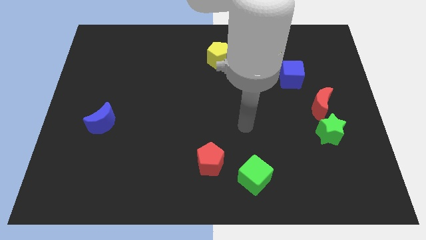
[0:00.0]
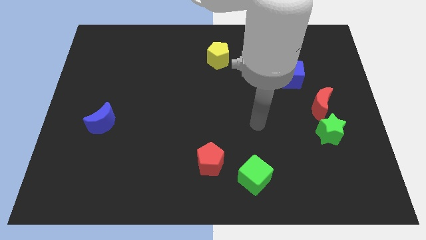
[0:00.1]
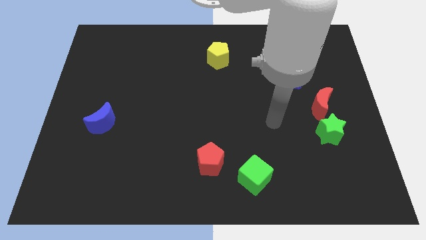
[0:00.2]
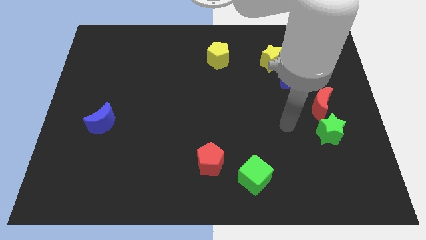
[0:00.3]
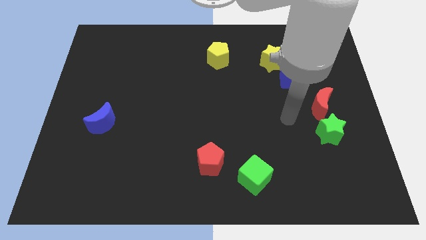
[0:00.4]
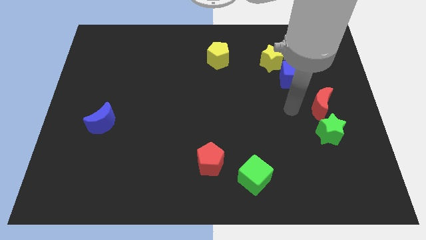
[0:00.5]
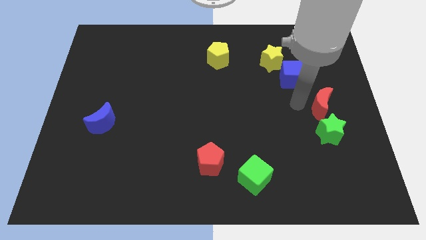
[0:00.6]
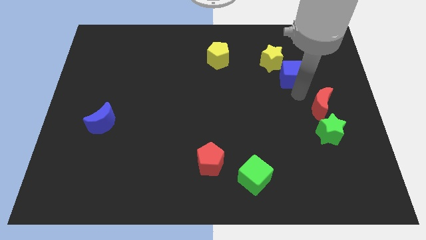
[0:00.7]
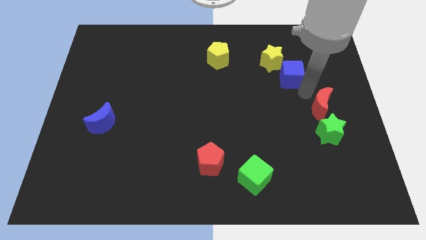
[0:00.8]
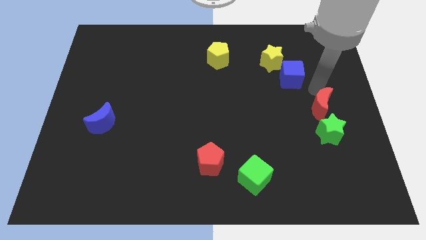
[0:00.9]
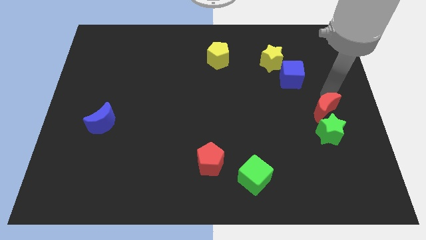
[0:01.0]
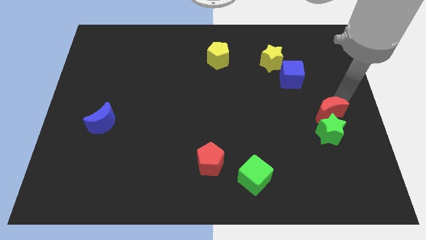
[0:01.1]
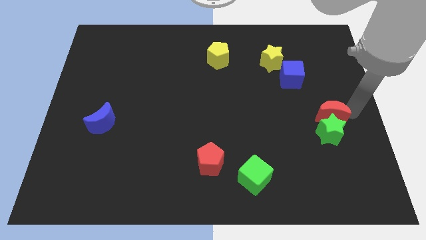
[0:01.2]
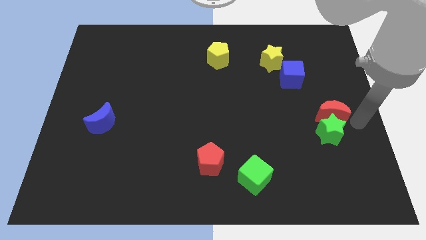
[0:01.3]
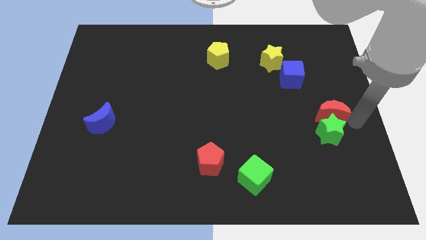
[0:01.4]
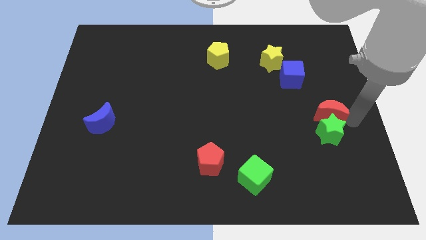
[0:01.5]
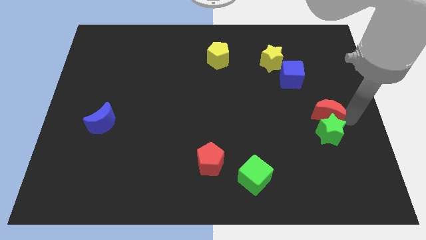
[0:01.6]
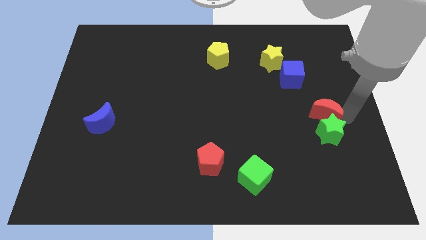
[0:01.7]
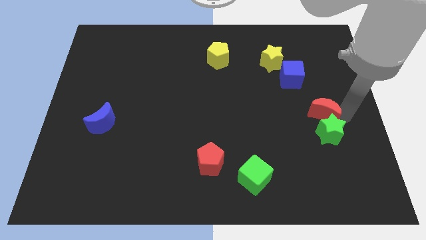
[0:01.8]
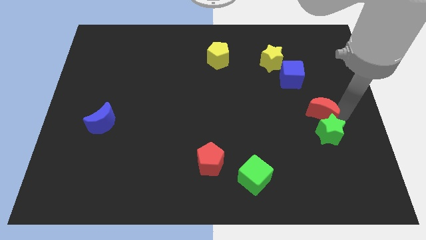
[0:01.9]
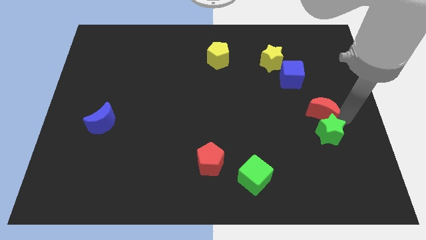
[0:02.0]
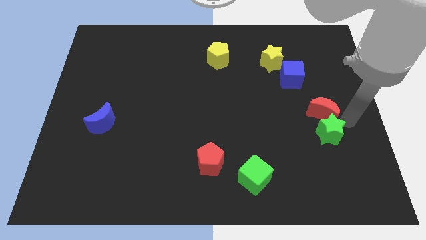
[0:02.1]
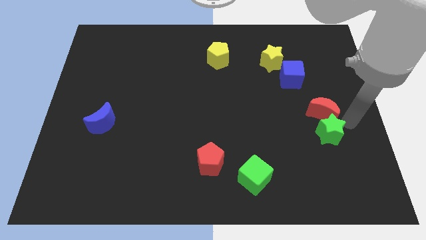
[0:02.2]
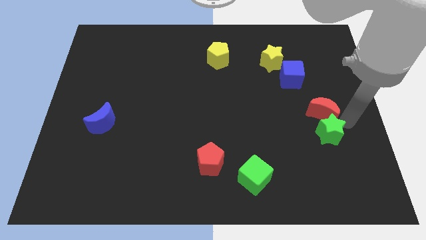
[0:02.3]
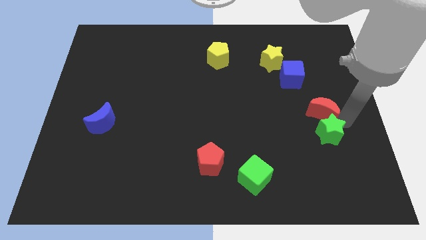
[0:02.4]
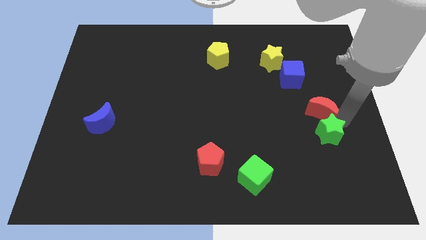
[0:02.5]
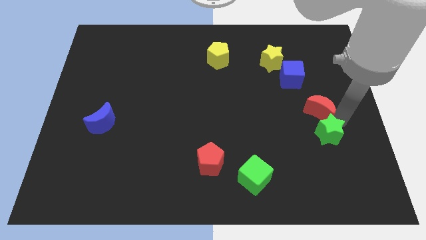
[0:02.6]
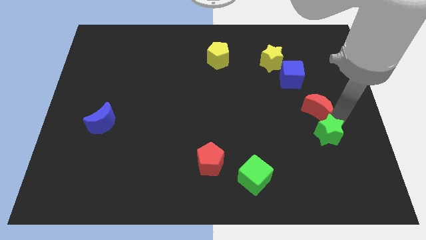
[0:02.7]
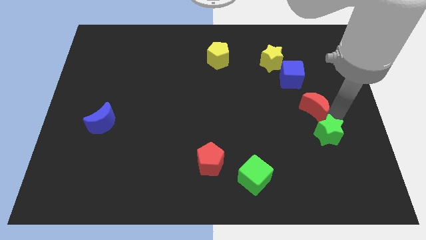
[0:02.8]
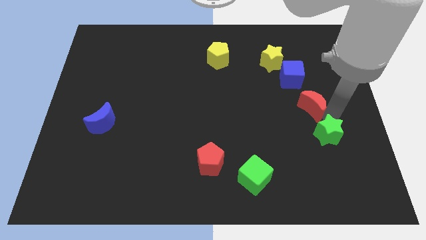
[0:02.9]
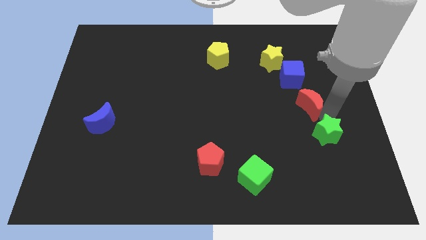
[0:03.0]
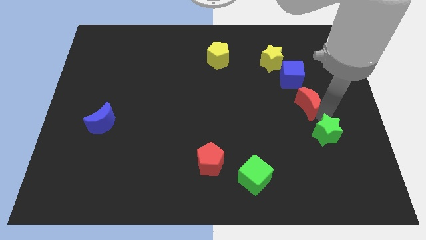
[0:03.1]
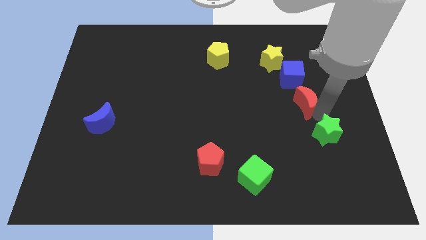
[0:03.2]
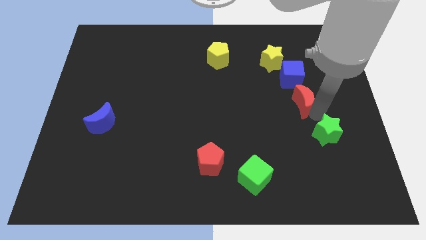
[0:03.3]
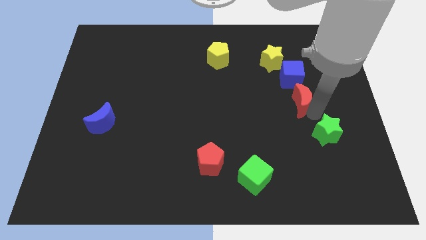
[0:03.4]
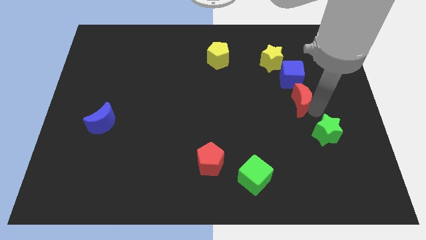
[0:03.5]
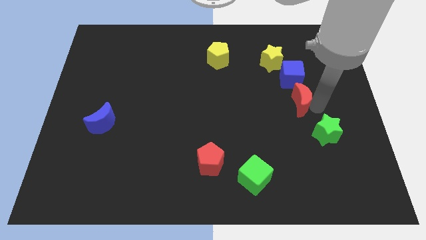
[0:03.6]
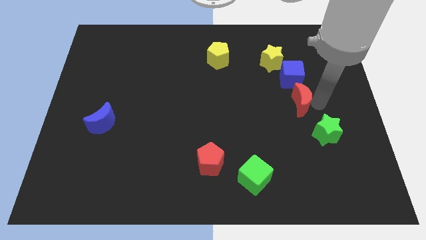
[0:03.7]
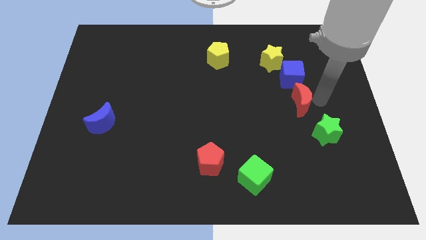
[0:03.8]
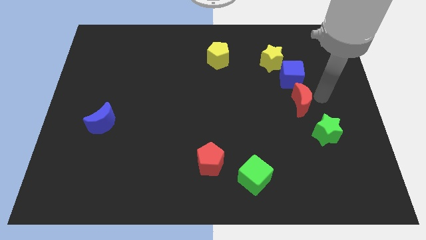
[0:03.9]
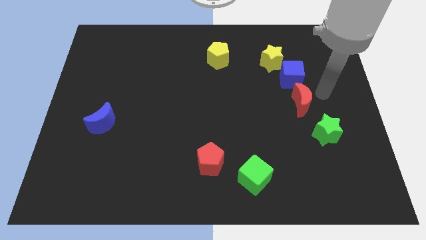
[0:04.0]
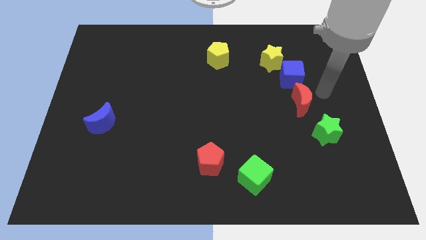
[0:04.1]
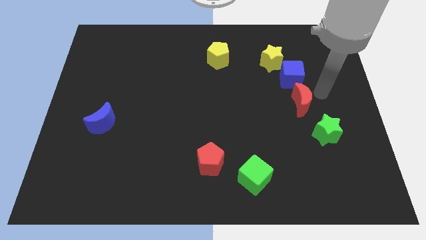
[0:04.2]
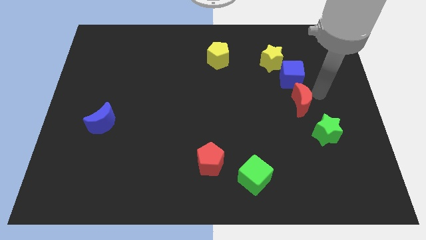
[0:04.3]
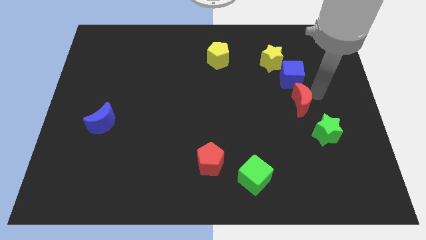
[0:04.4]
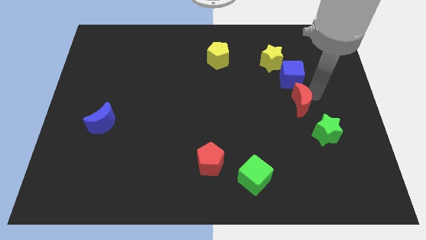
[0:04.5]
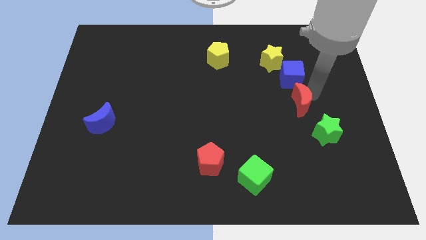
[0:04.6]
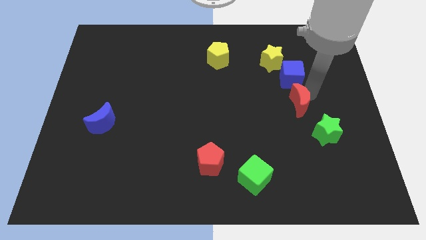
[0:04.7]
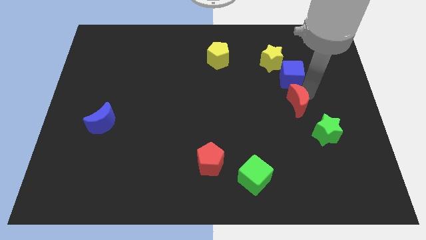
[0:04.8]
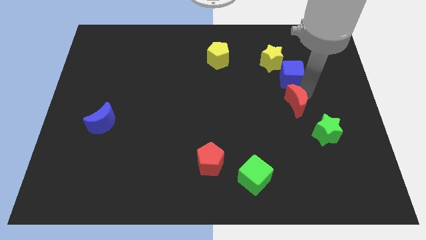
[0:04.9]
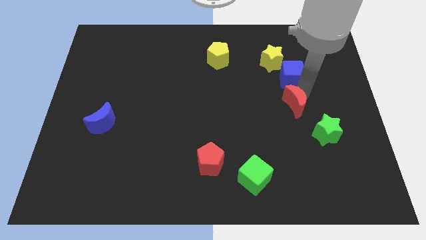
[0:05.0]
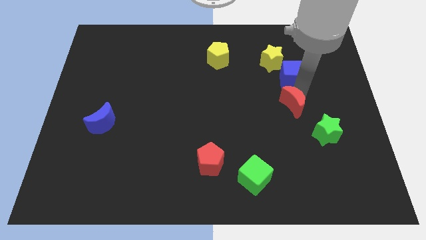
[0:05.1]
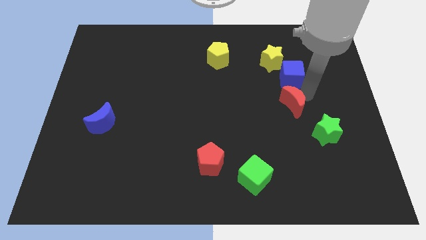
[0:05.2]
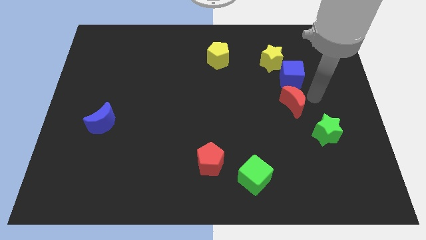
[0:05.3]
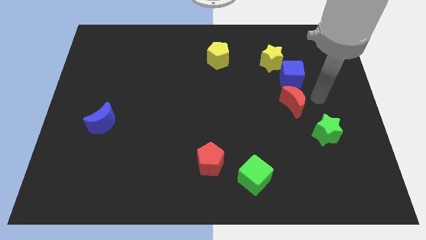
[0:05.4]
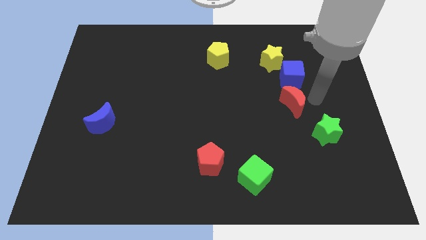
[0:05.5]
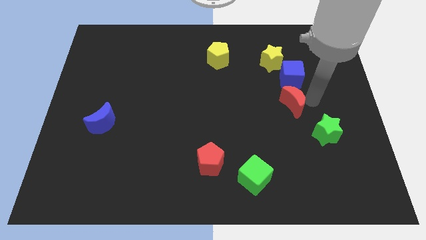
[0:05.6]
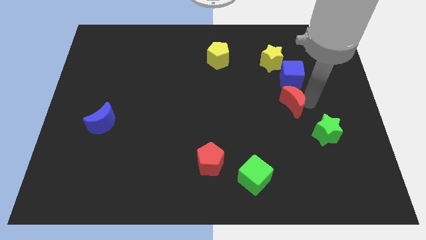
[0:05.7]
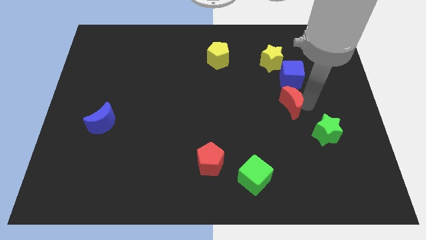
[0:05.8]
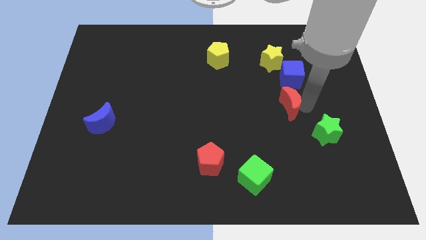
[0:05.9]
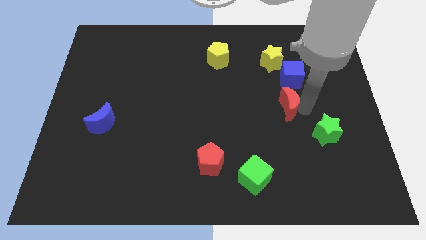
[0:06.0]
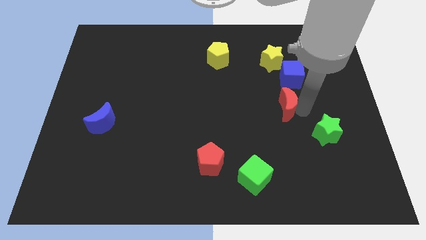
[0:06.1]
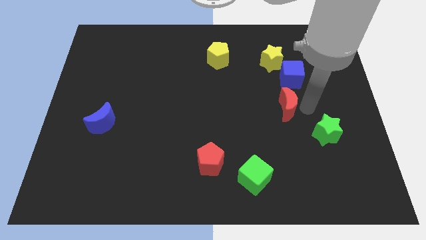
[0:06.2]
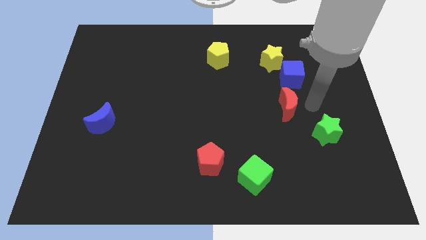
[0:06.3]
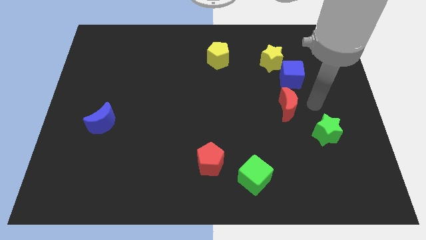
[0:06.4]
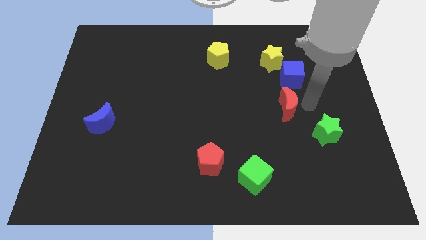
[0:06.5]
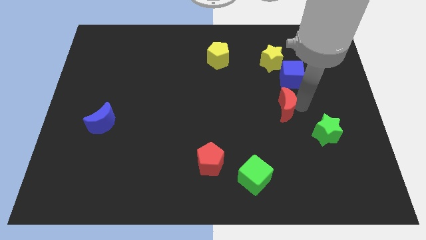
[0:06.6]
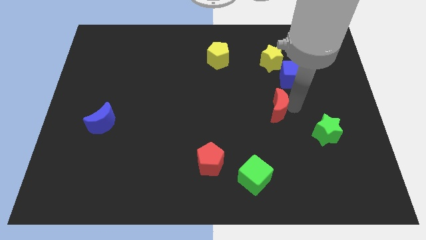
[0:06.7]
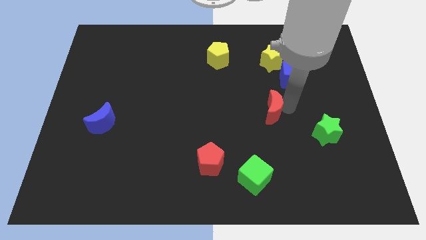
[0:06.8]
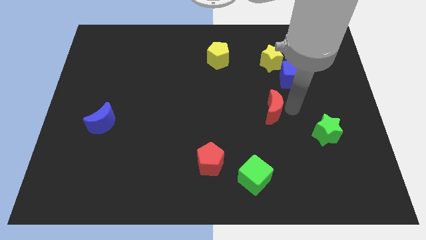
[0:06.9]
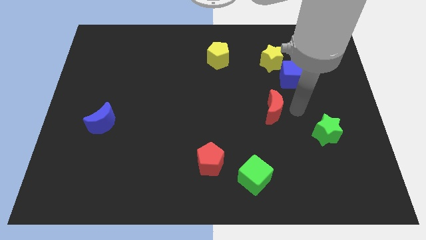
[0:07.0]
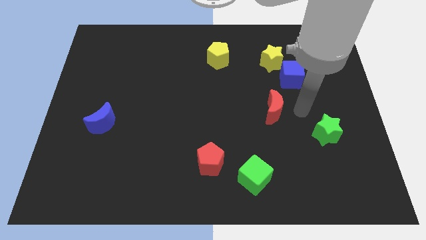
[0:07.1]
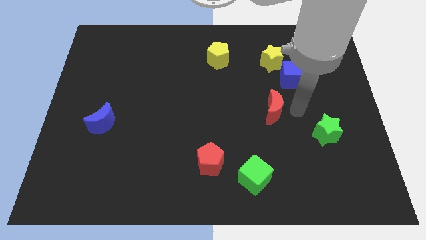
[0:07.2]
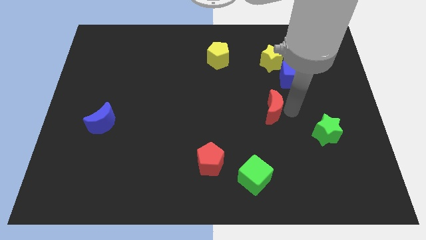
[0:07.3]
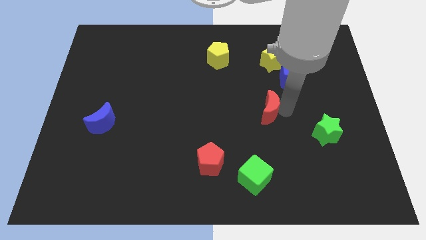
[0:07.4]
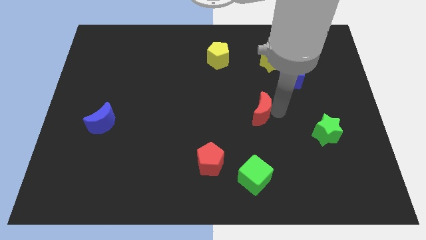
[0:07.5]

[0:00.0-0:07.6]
push the red moon to the middle

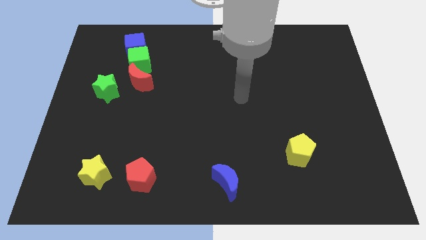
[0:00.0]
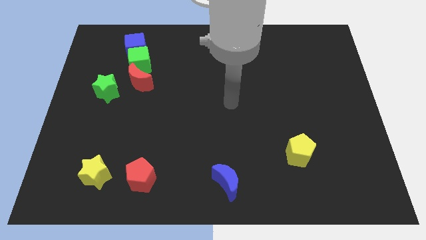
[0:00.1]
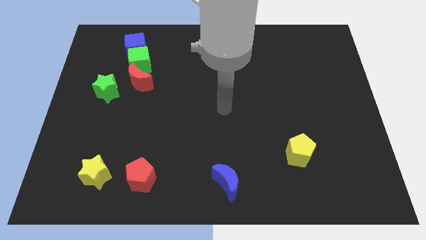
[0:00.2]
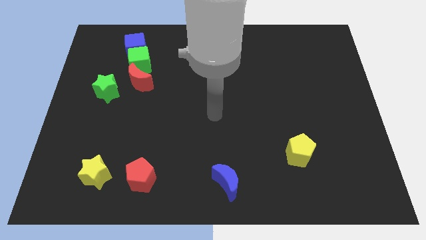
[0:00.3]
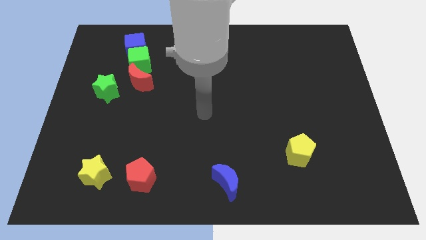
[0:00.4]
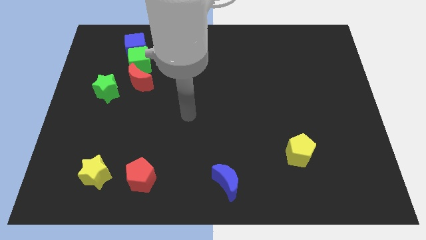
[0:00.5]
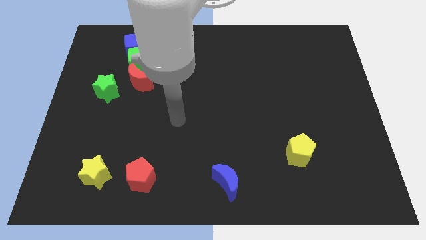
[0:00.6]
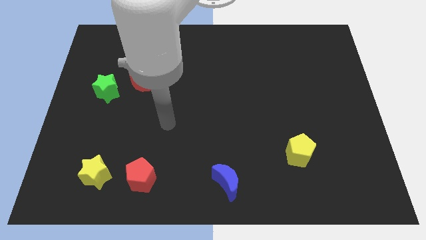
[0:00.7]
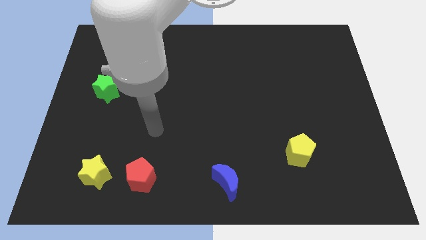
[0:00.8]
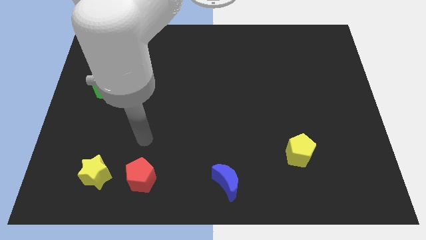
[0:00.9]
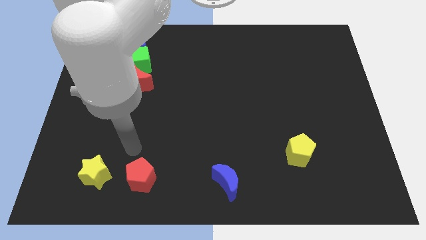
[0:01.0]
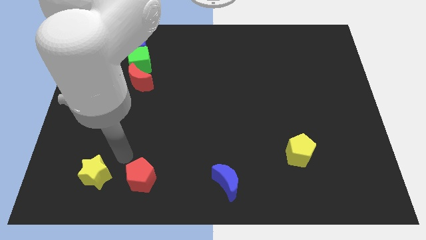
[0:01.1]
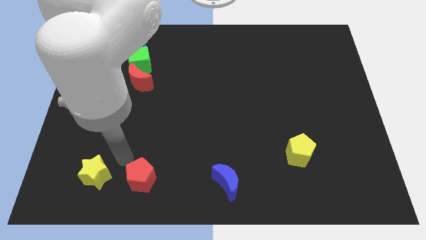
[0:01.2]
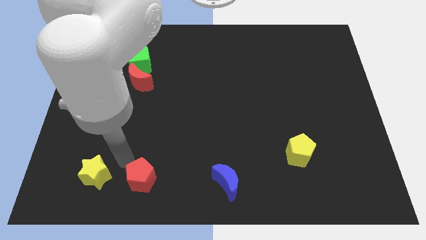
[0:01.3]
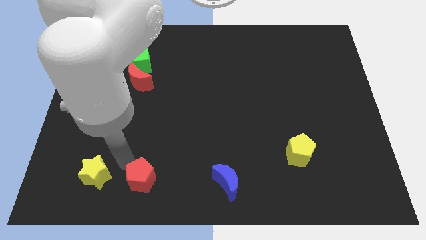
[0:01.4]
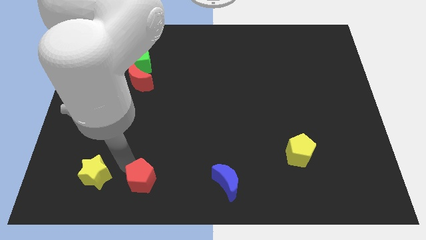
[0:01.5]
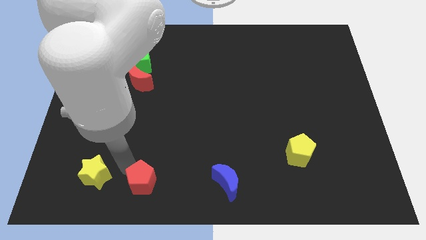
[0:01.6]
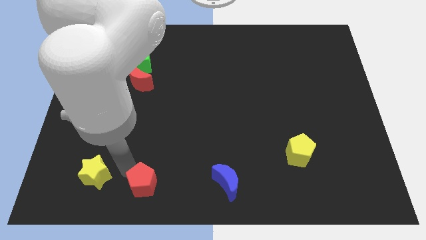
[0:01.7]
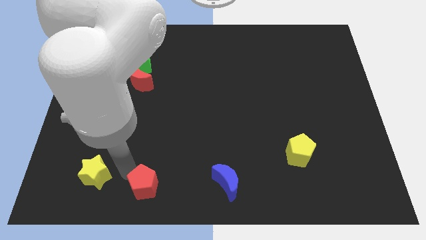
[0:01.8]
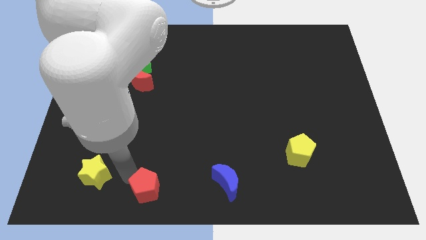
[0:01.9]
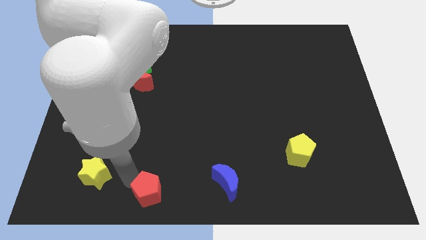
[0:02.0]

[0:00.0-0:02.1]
slide the red pentagon to the bottom
